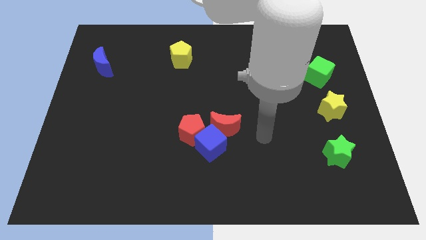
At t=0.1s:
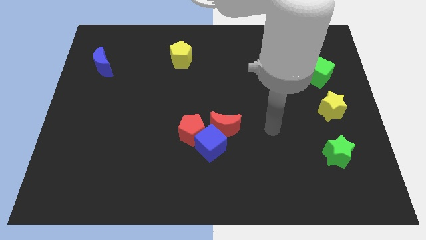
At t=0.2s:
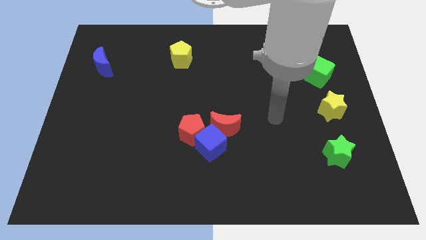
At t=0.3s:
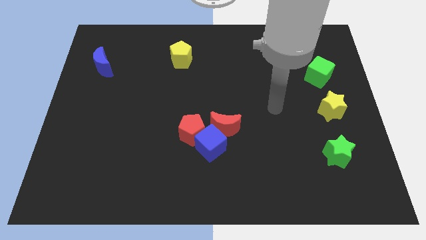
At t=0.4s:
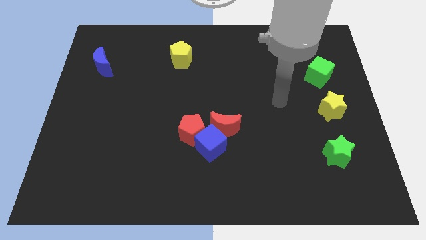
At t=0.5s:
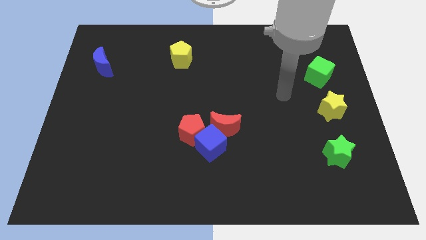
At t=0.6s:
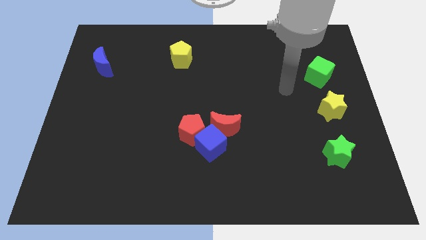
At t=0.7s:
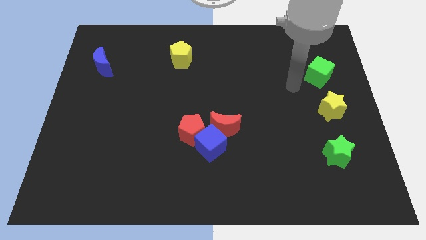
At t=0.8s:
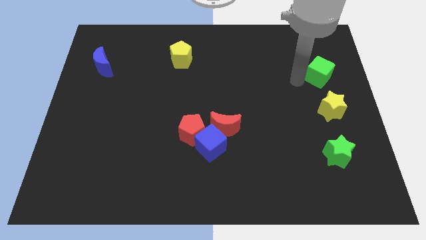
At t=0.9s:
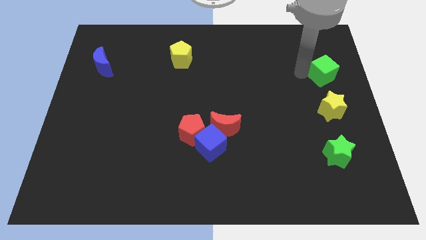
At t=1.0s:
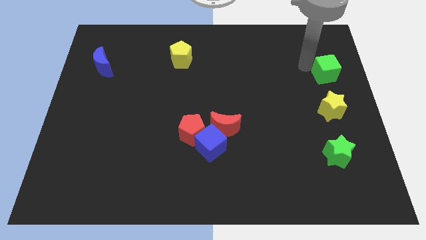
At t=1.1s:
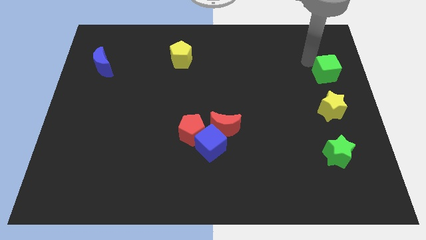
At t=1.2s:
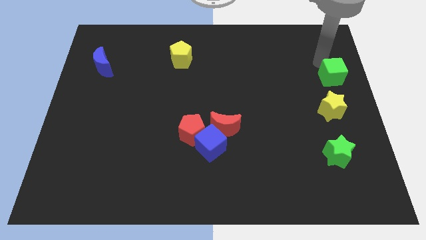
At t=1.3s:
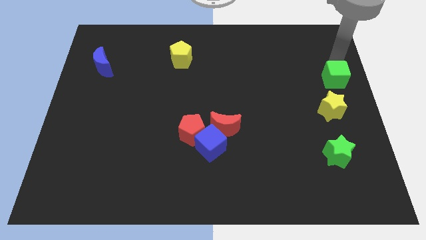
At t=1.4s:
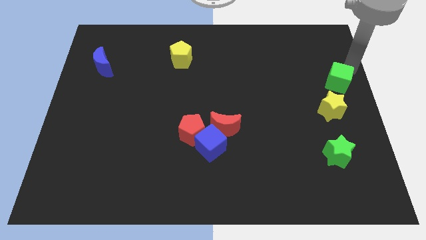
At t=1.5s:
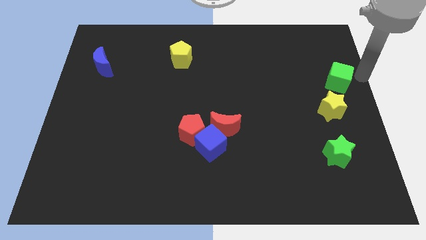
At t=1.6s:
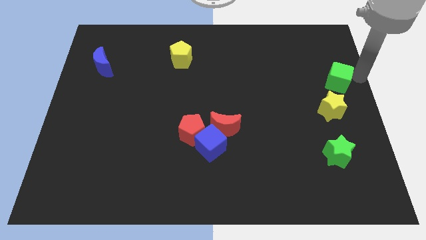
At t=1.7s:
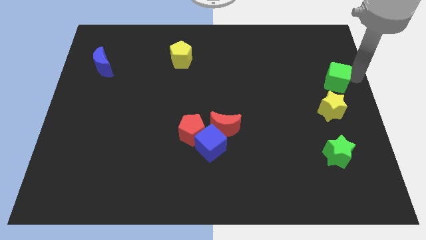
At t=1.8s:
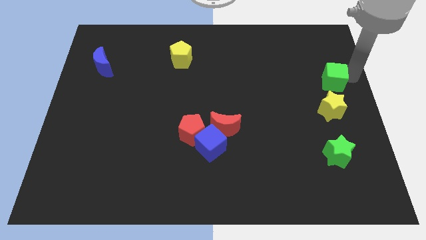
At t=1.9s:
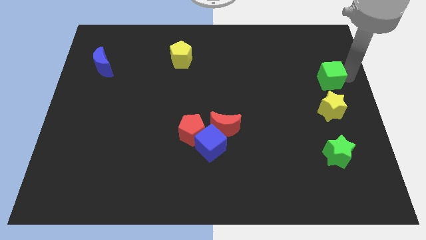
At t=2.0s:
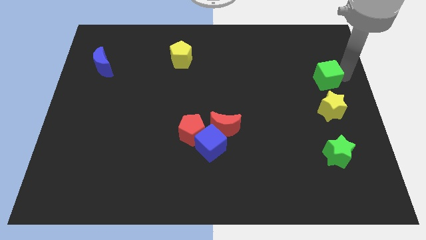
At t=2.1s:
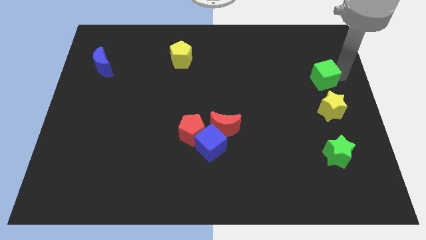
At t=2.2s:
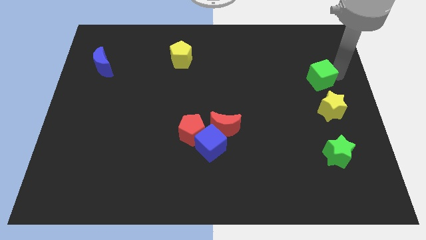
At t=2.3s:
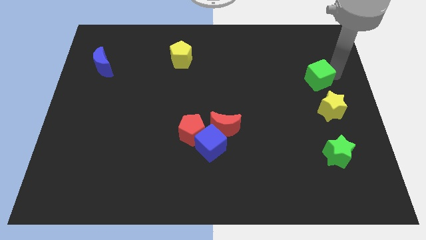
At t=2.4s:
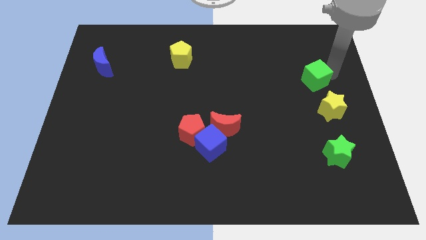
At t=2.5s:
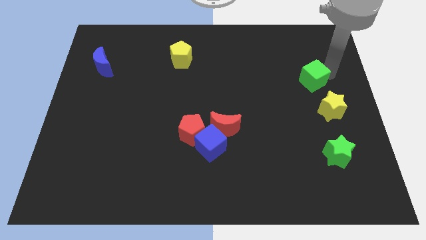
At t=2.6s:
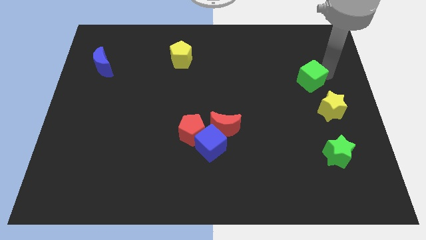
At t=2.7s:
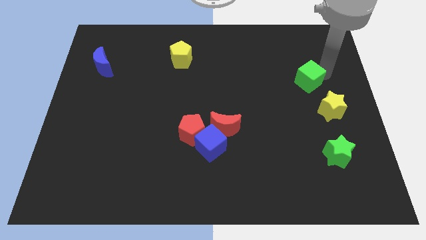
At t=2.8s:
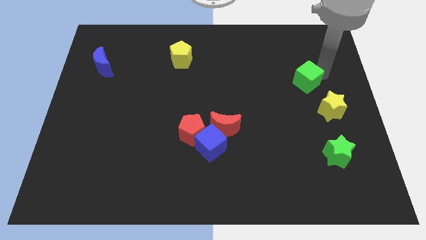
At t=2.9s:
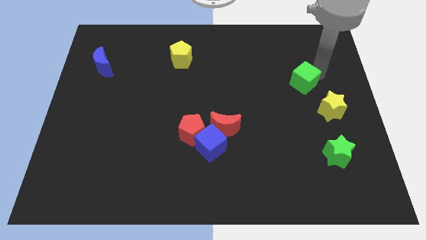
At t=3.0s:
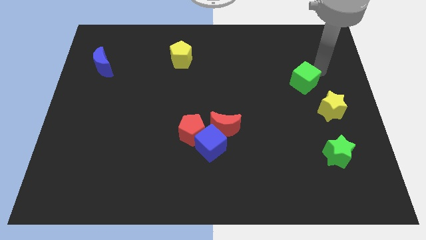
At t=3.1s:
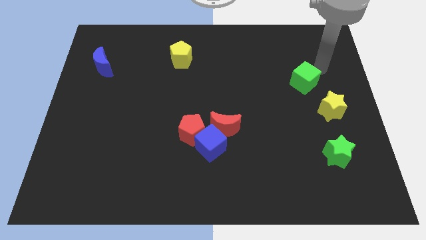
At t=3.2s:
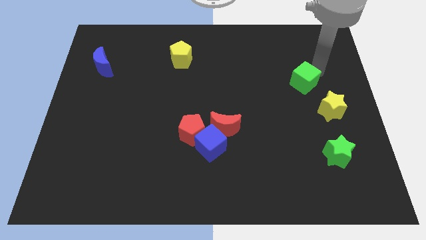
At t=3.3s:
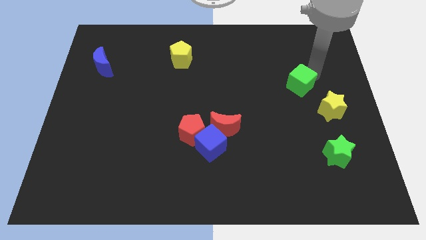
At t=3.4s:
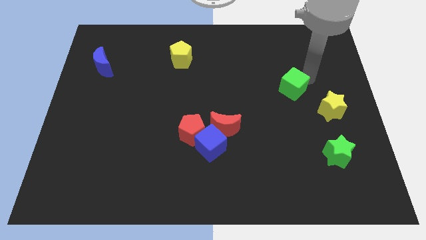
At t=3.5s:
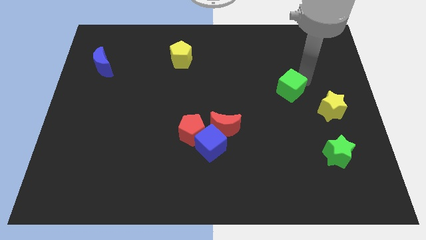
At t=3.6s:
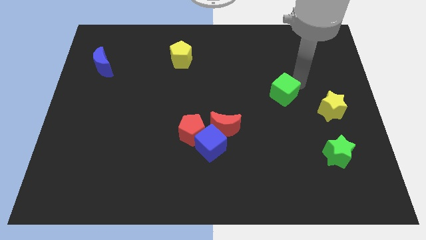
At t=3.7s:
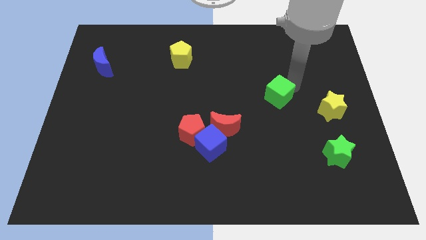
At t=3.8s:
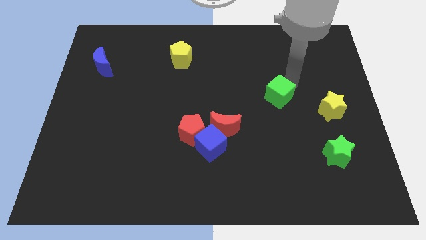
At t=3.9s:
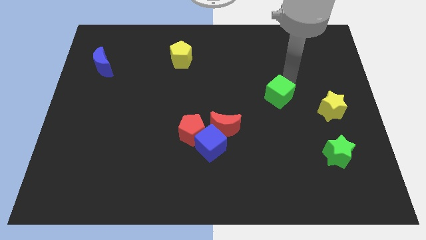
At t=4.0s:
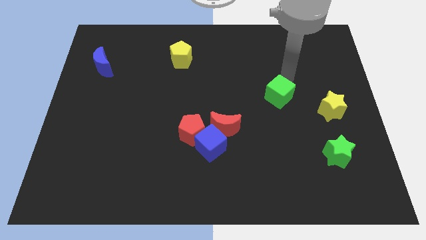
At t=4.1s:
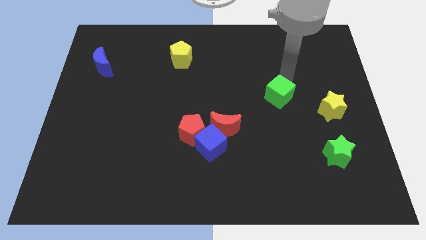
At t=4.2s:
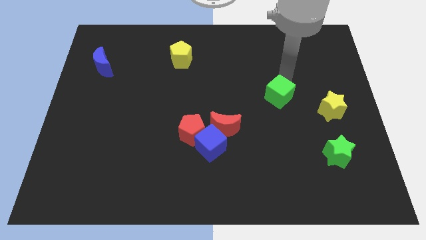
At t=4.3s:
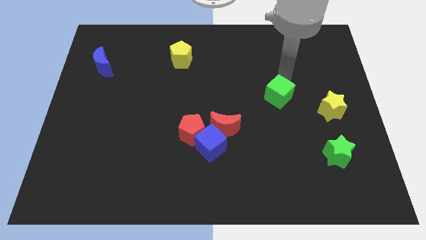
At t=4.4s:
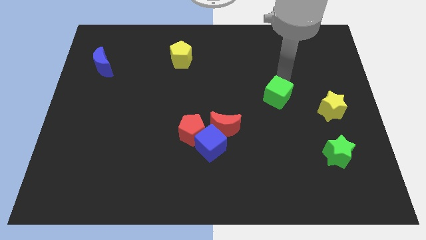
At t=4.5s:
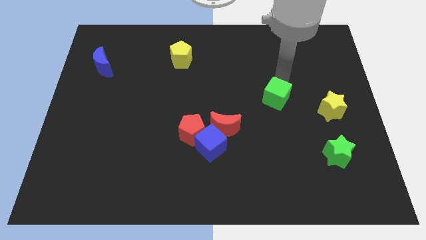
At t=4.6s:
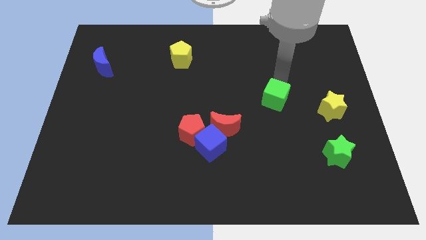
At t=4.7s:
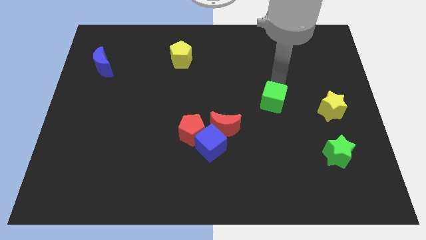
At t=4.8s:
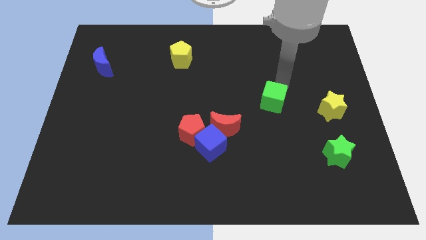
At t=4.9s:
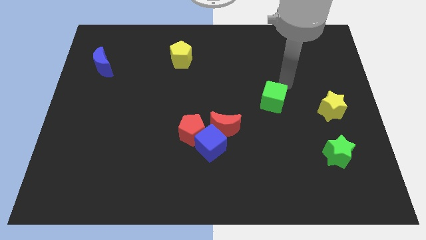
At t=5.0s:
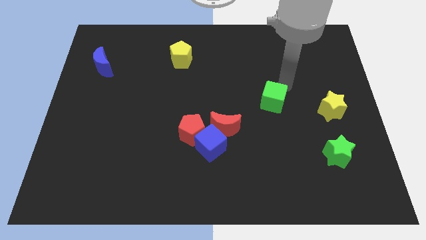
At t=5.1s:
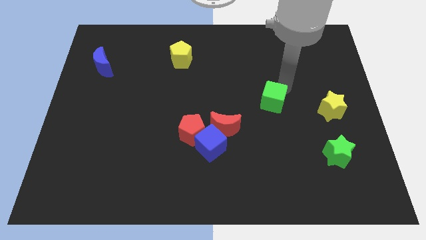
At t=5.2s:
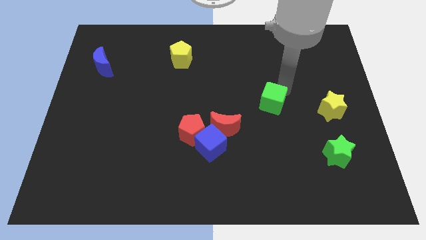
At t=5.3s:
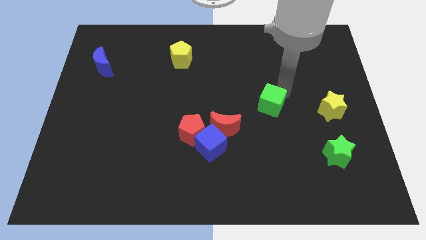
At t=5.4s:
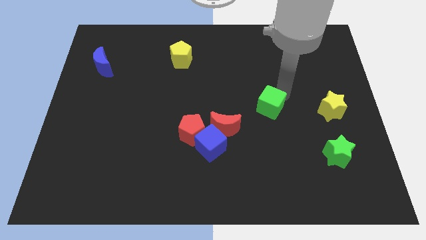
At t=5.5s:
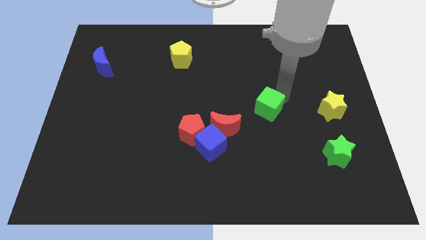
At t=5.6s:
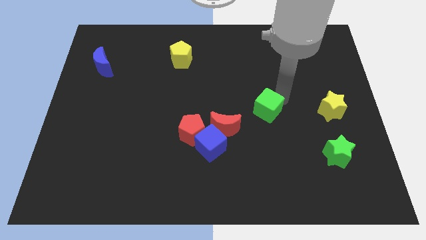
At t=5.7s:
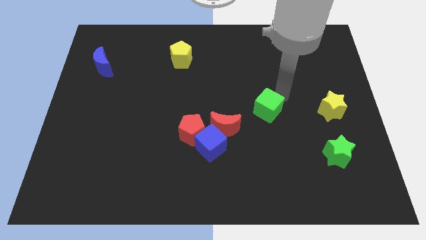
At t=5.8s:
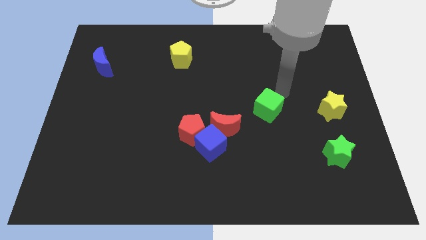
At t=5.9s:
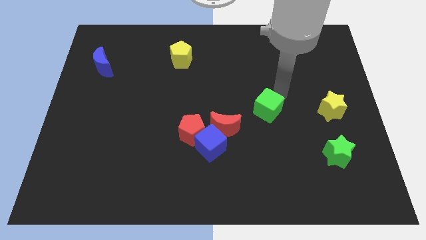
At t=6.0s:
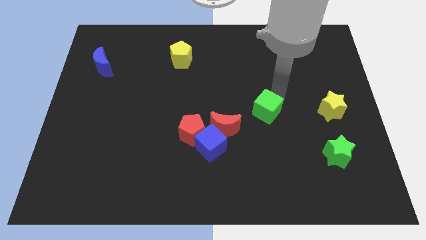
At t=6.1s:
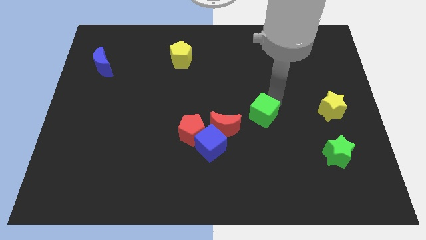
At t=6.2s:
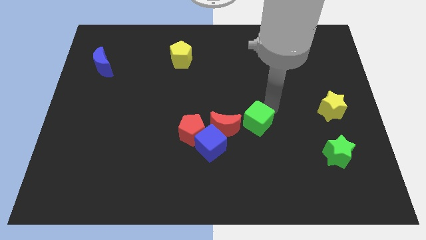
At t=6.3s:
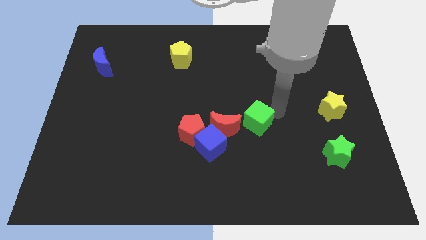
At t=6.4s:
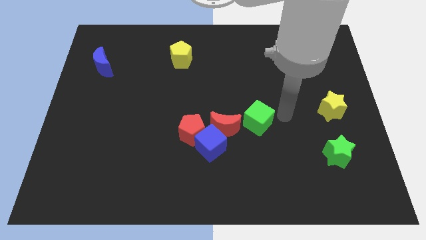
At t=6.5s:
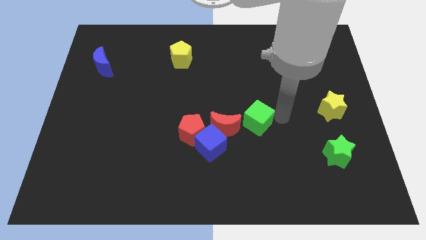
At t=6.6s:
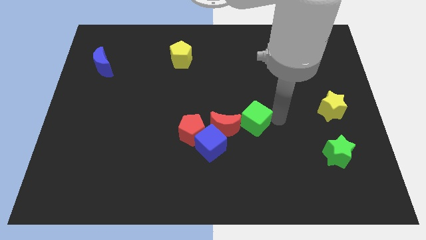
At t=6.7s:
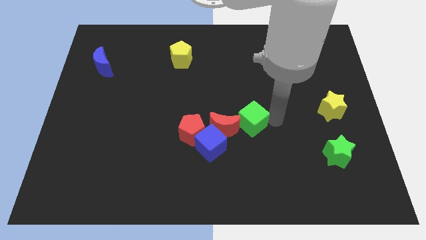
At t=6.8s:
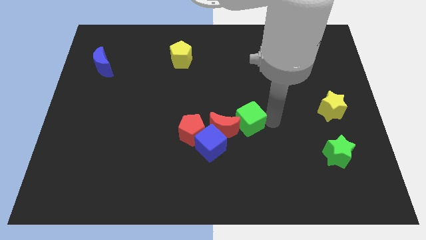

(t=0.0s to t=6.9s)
slide the green cube next to the red moon
